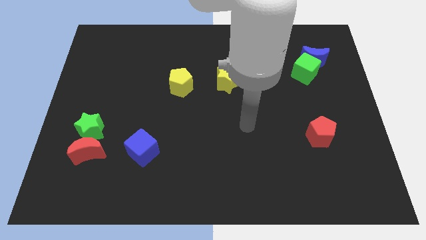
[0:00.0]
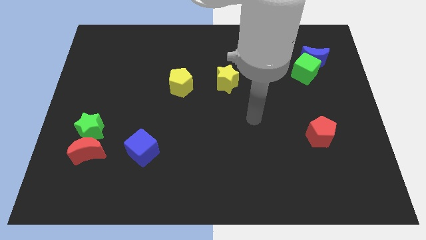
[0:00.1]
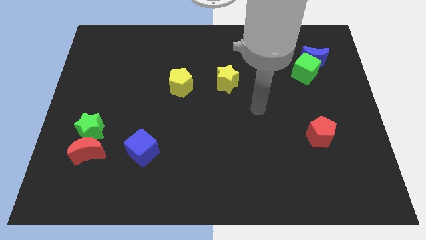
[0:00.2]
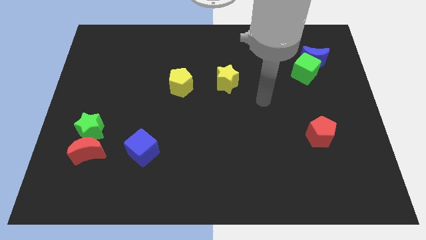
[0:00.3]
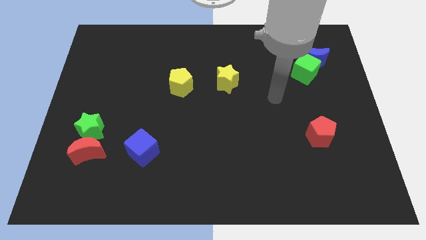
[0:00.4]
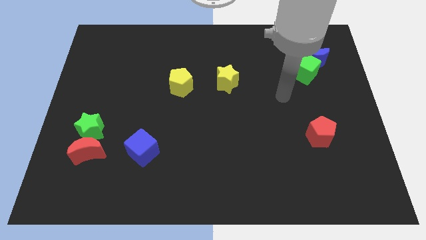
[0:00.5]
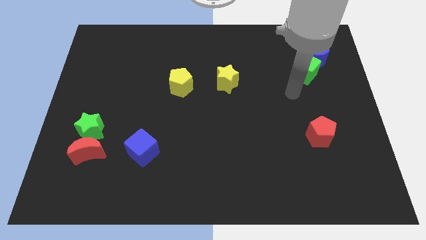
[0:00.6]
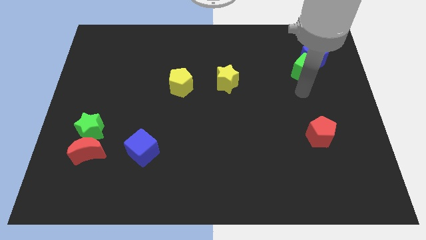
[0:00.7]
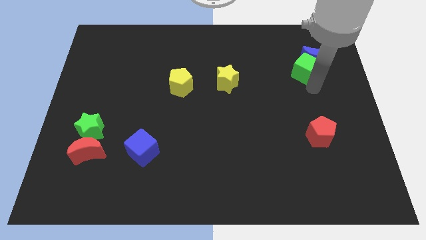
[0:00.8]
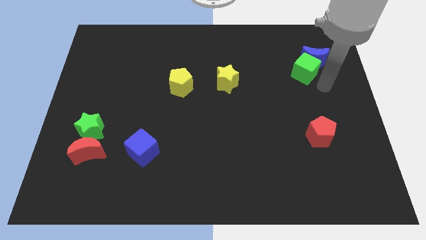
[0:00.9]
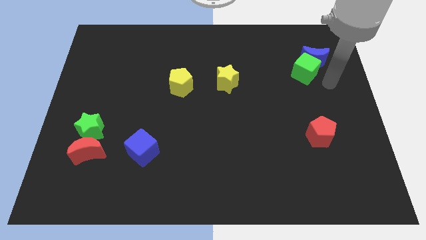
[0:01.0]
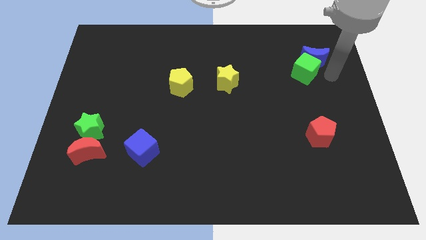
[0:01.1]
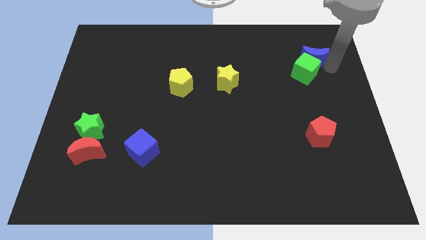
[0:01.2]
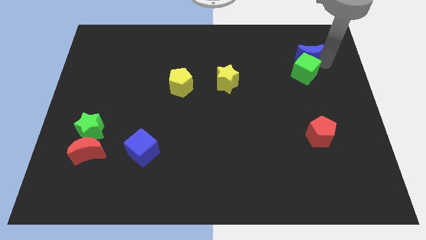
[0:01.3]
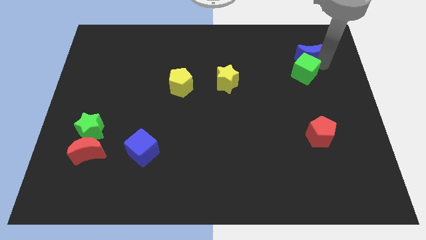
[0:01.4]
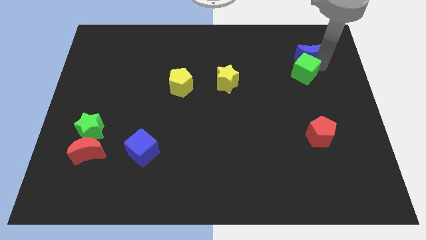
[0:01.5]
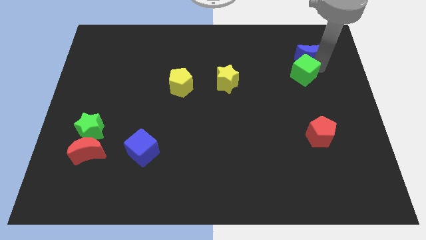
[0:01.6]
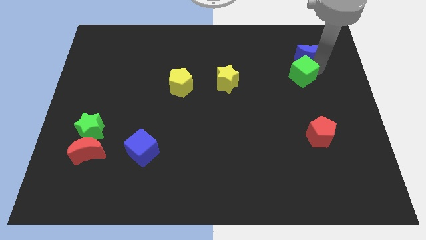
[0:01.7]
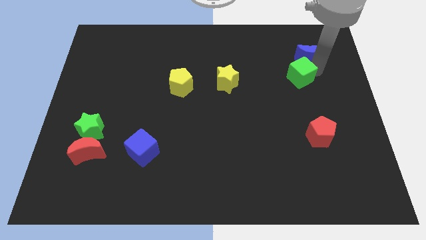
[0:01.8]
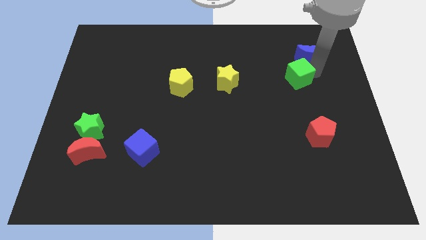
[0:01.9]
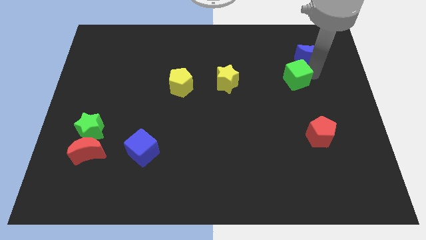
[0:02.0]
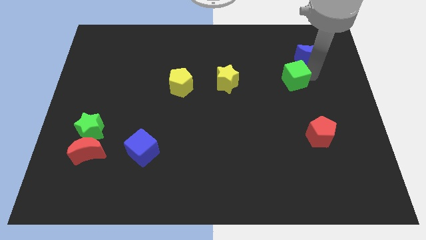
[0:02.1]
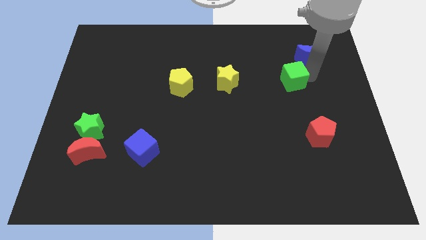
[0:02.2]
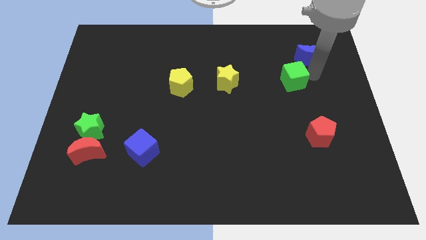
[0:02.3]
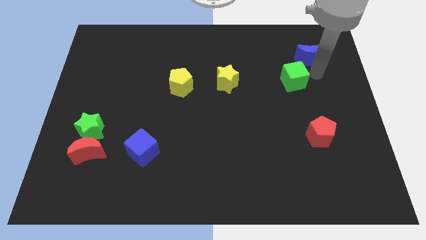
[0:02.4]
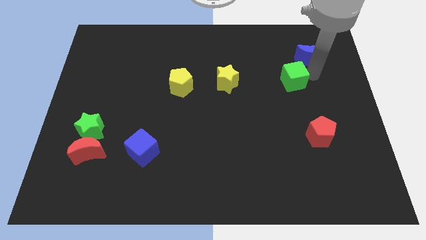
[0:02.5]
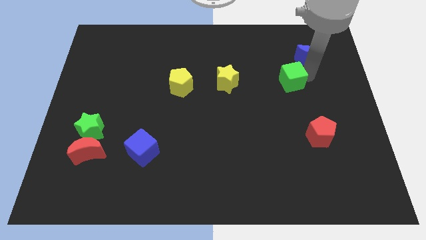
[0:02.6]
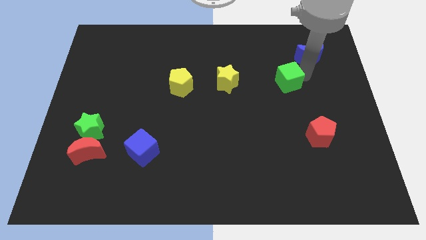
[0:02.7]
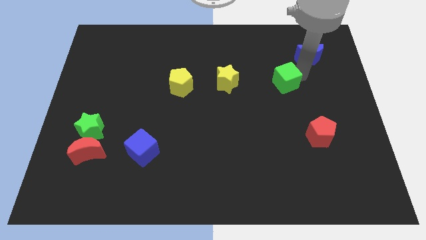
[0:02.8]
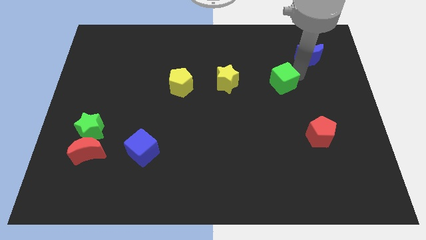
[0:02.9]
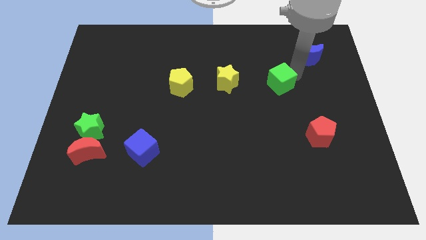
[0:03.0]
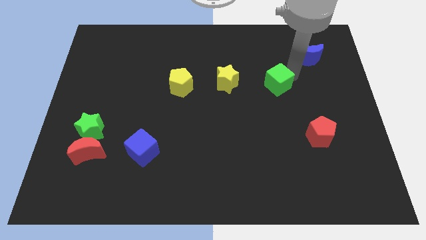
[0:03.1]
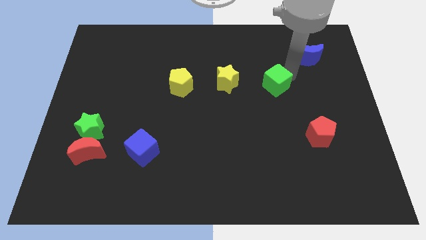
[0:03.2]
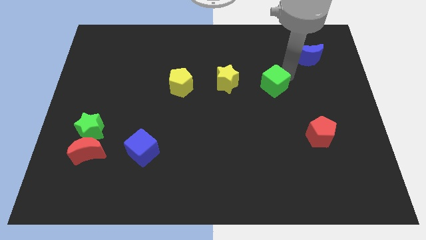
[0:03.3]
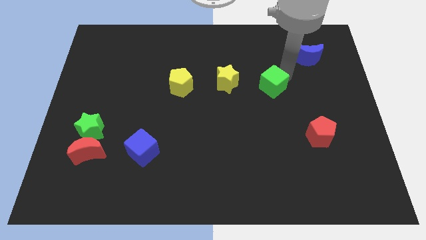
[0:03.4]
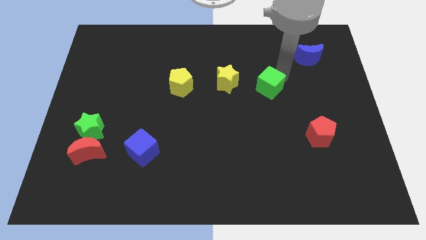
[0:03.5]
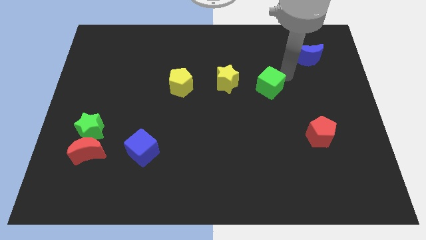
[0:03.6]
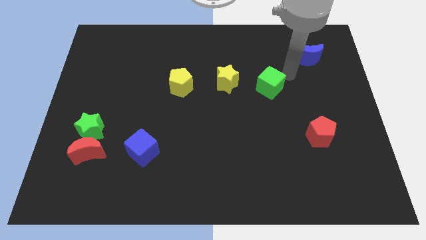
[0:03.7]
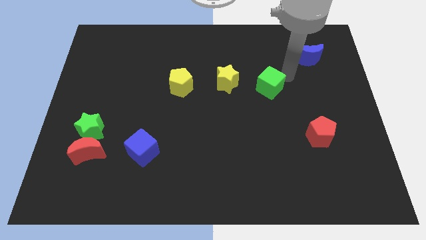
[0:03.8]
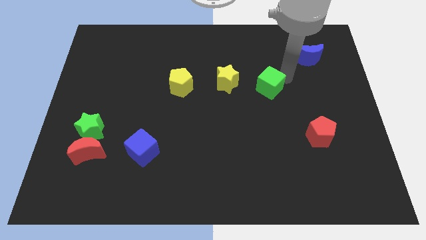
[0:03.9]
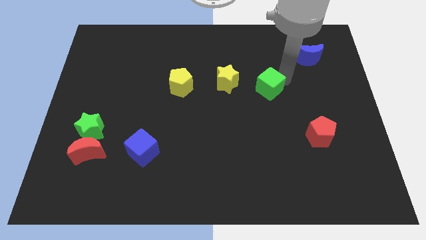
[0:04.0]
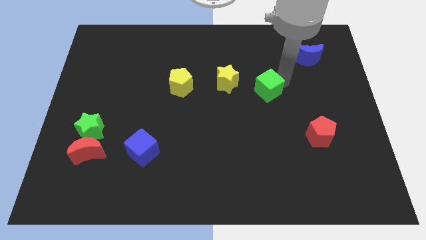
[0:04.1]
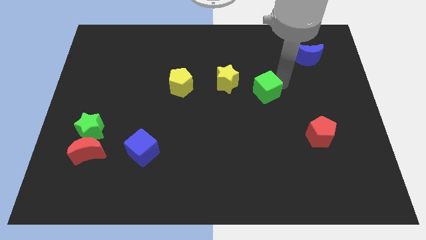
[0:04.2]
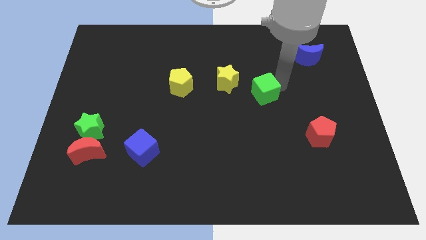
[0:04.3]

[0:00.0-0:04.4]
slide the green cube diagonally down and to the right of the yellow star

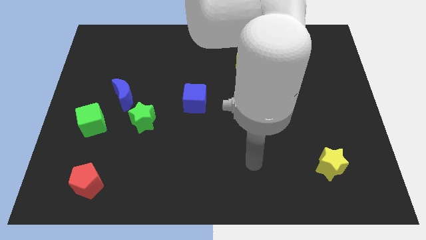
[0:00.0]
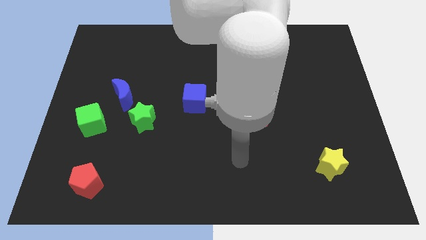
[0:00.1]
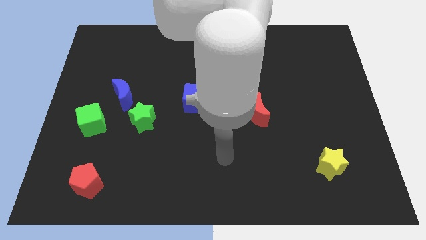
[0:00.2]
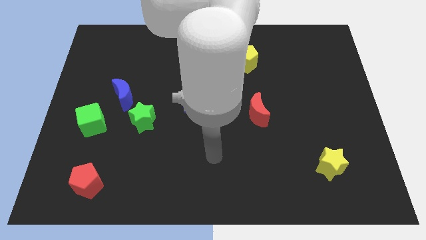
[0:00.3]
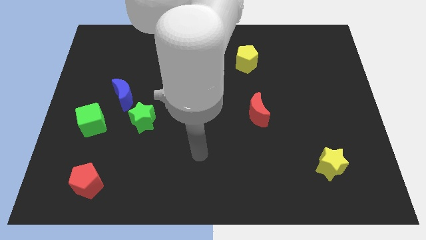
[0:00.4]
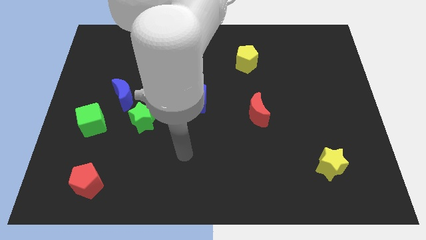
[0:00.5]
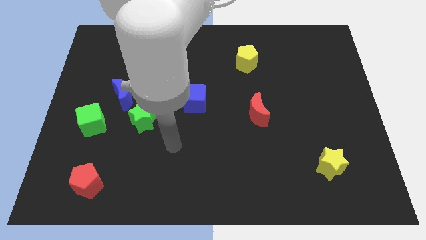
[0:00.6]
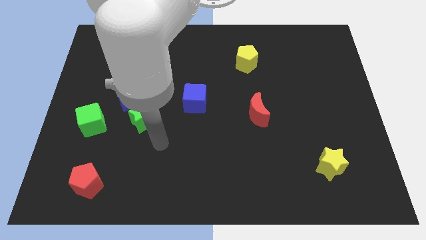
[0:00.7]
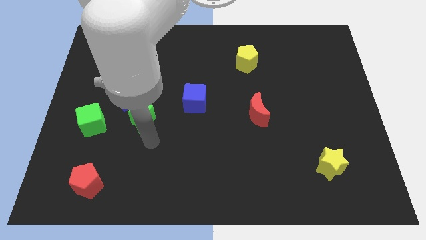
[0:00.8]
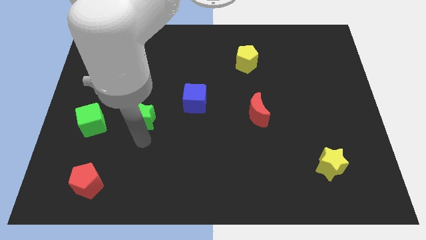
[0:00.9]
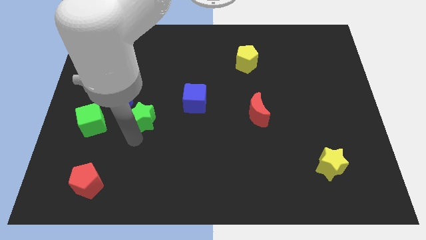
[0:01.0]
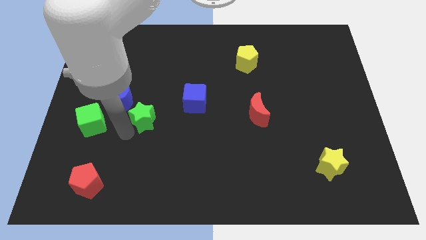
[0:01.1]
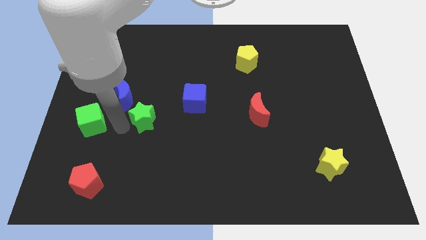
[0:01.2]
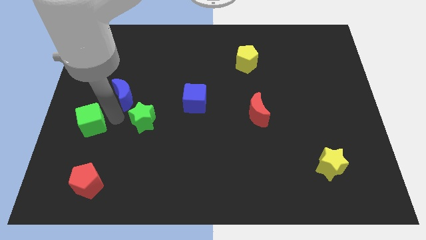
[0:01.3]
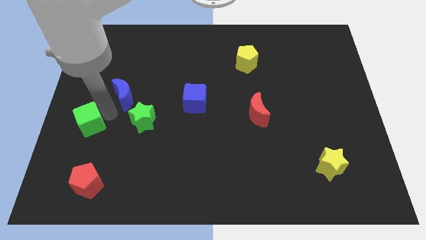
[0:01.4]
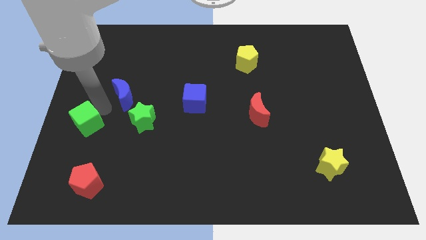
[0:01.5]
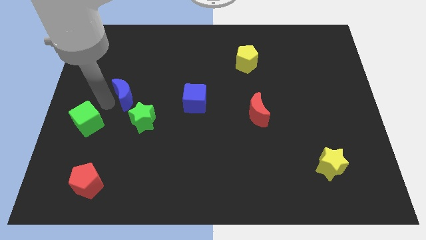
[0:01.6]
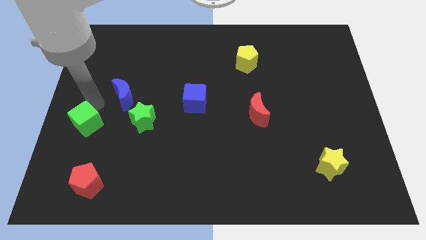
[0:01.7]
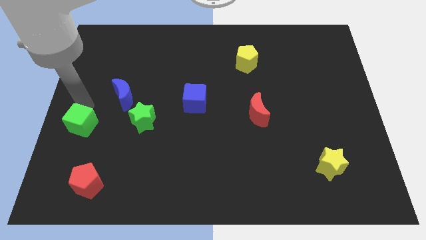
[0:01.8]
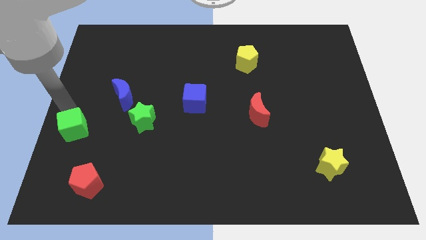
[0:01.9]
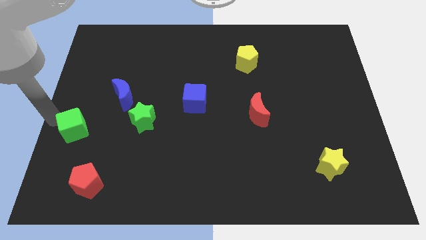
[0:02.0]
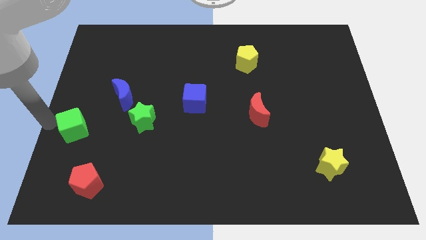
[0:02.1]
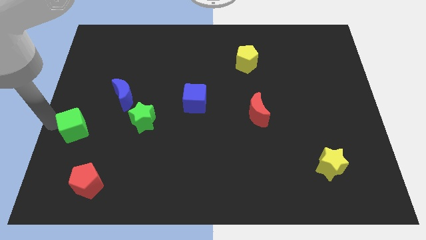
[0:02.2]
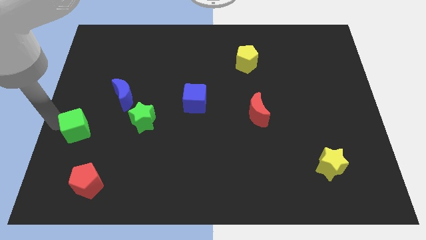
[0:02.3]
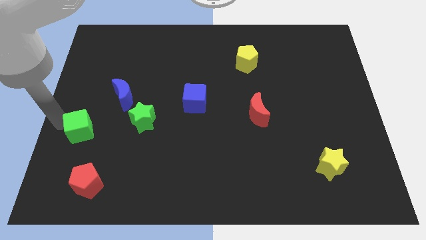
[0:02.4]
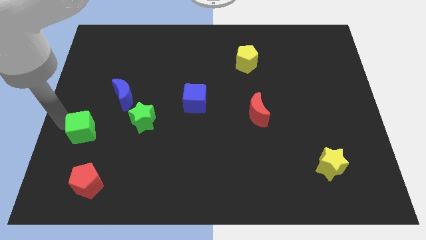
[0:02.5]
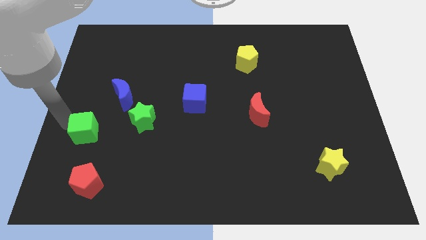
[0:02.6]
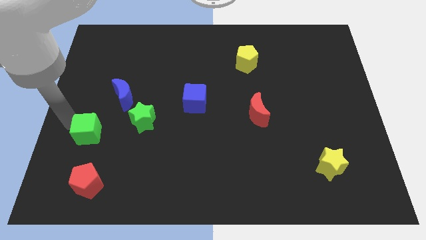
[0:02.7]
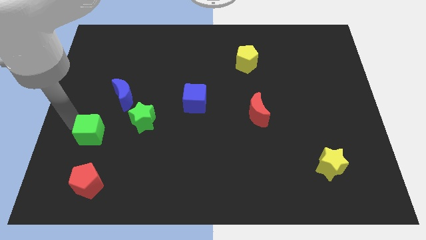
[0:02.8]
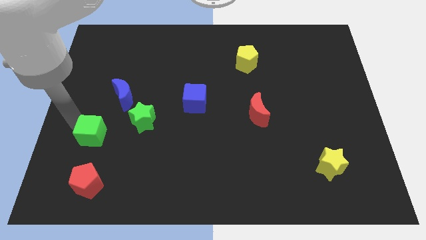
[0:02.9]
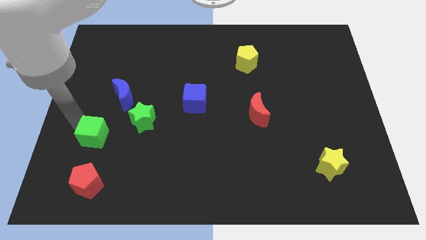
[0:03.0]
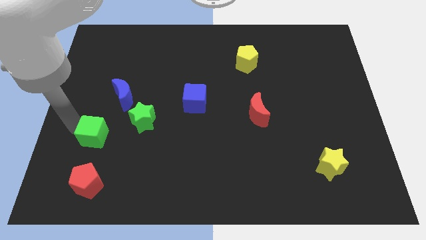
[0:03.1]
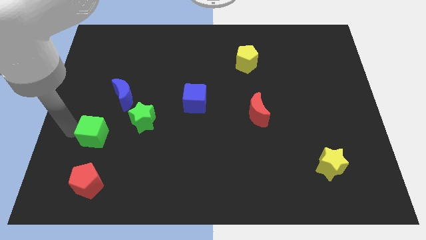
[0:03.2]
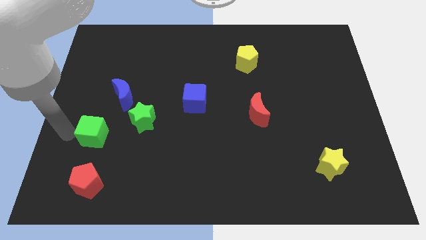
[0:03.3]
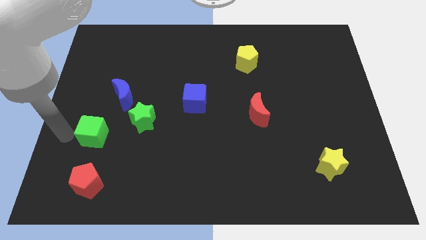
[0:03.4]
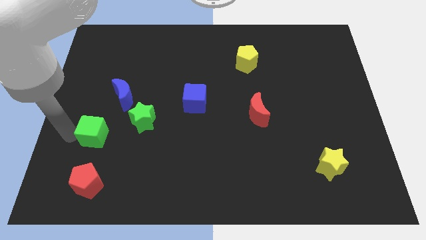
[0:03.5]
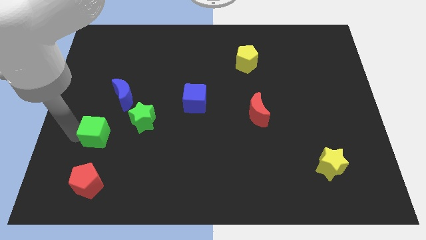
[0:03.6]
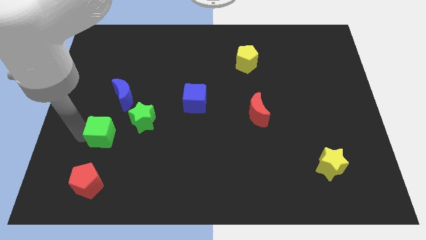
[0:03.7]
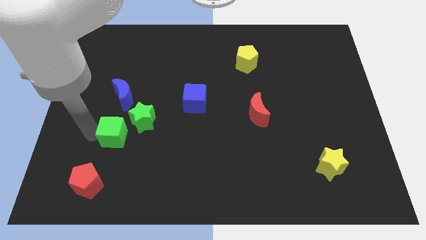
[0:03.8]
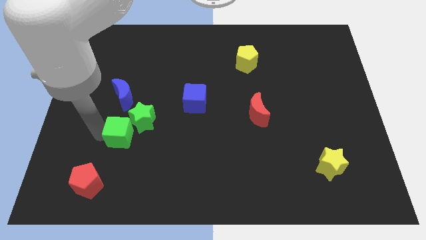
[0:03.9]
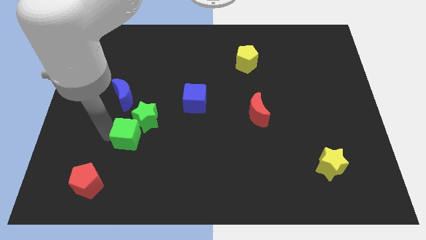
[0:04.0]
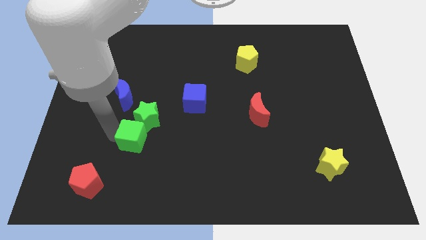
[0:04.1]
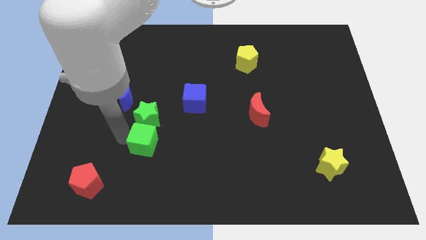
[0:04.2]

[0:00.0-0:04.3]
push the green cube to the bottom right side of the green star
